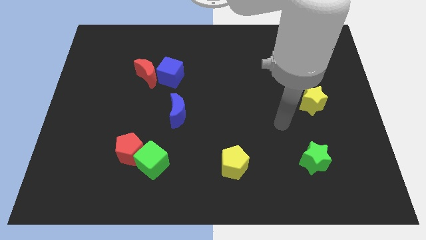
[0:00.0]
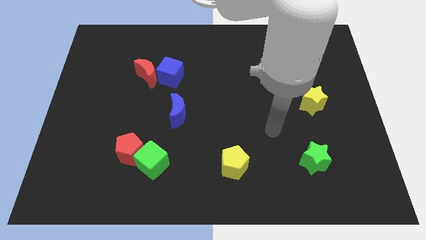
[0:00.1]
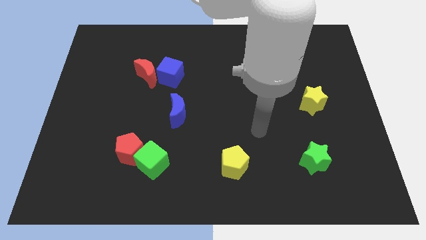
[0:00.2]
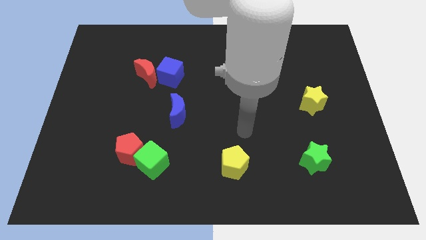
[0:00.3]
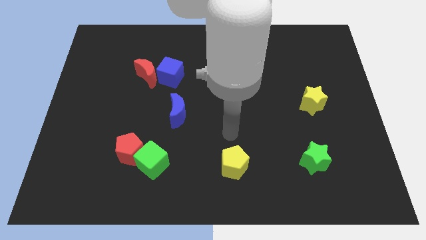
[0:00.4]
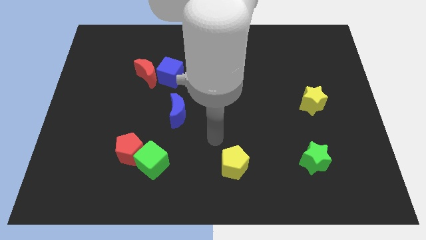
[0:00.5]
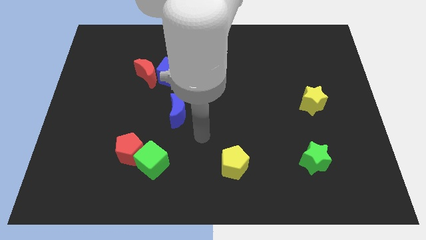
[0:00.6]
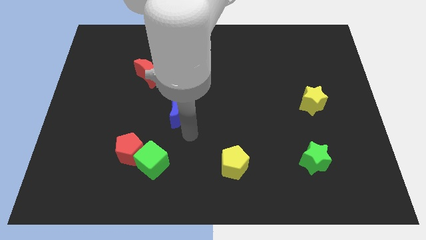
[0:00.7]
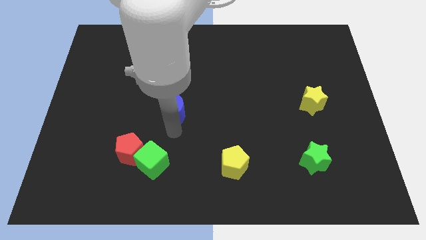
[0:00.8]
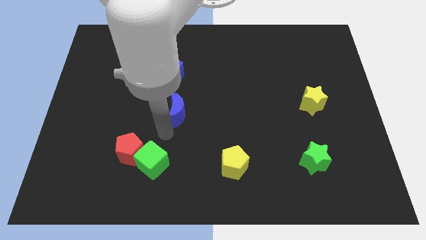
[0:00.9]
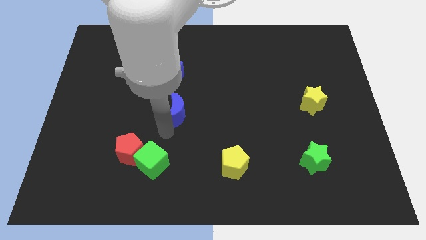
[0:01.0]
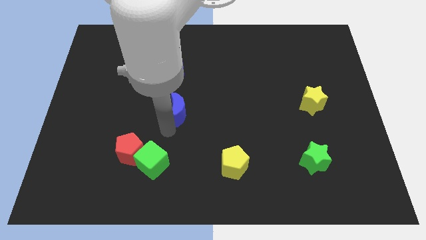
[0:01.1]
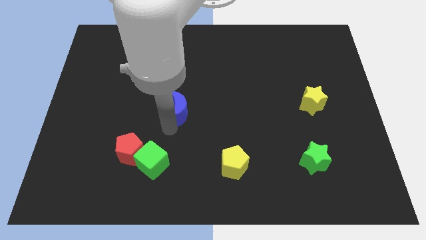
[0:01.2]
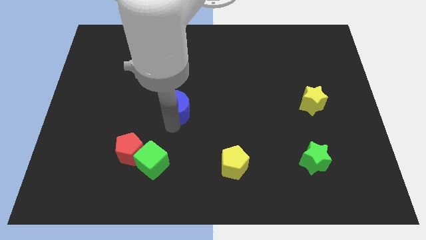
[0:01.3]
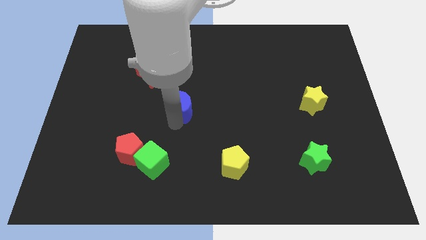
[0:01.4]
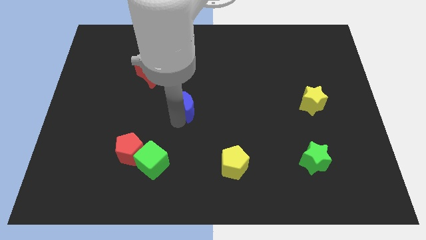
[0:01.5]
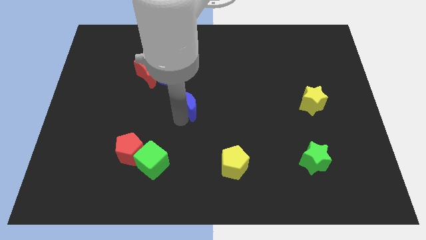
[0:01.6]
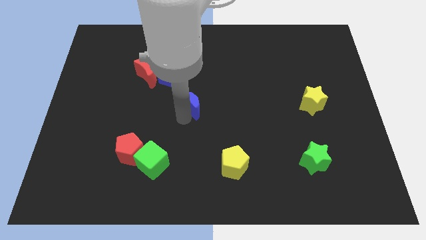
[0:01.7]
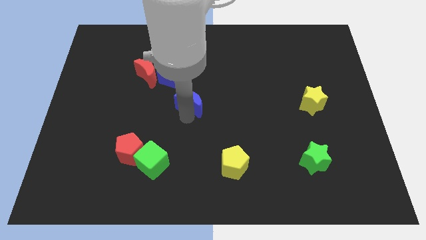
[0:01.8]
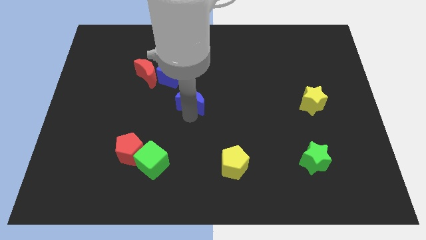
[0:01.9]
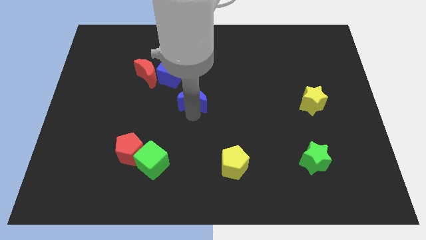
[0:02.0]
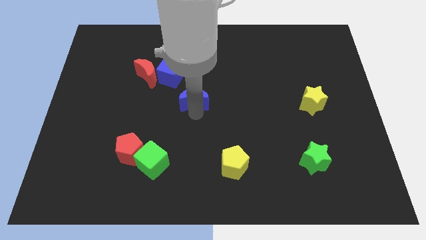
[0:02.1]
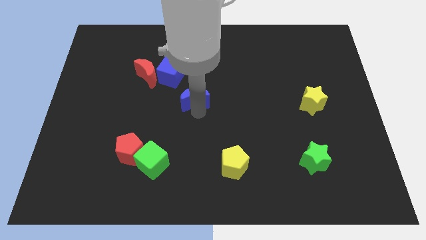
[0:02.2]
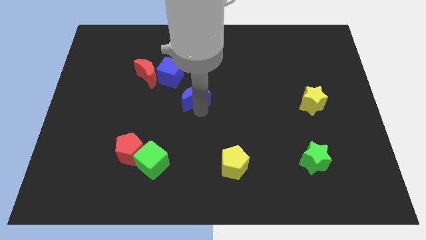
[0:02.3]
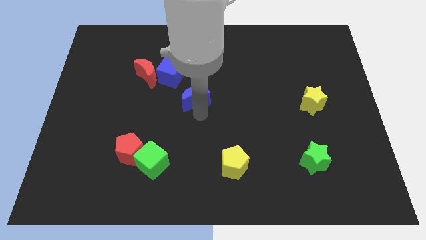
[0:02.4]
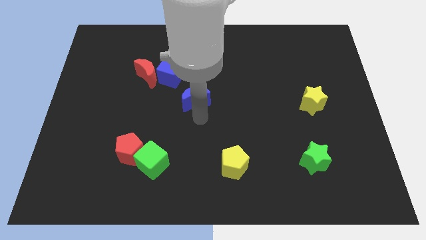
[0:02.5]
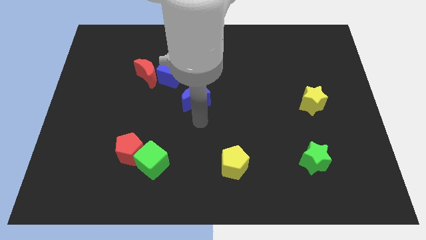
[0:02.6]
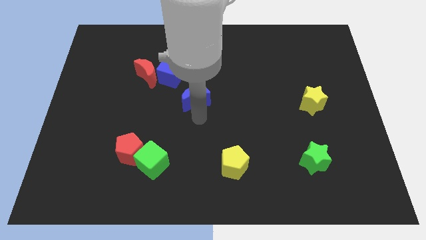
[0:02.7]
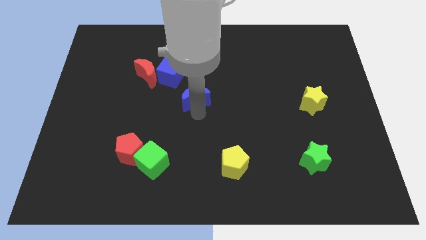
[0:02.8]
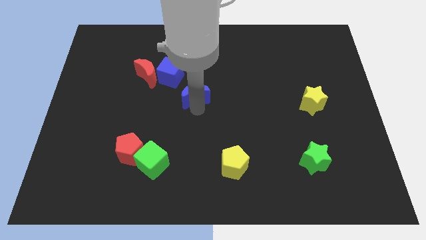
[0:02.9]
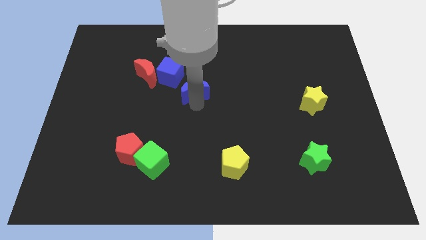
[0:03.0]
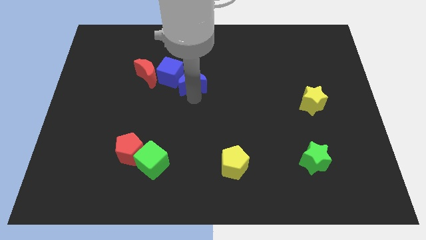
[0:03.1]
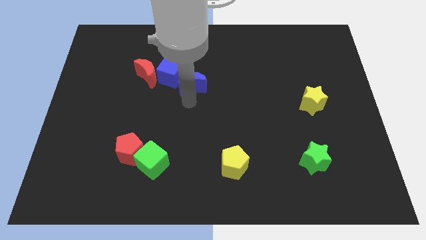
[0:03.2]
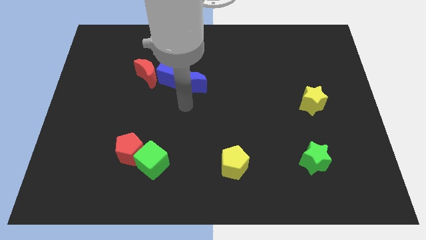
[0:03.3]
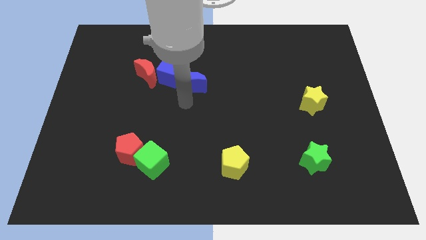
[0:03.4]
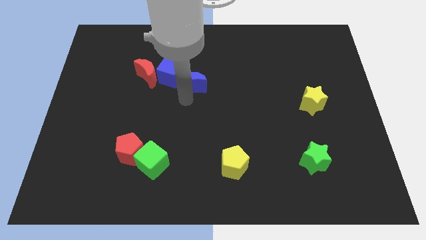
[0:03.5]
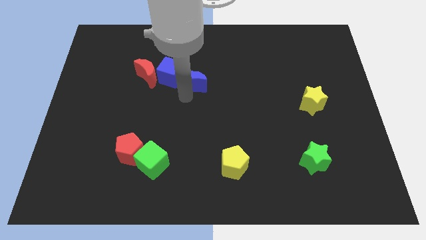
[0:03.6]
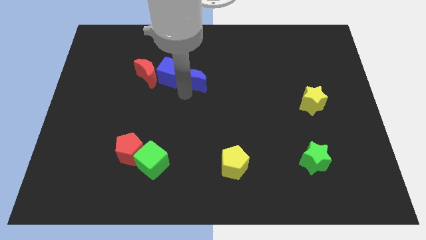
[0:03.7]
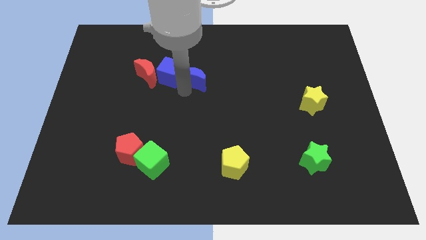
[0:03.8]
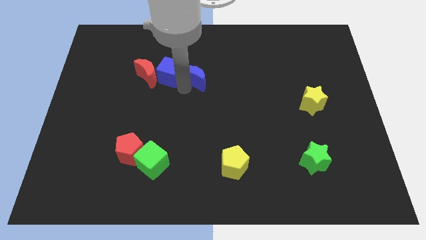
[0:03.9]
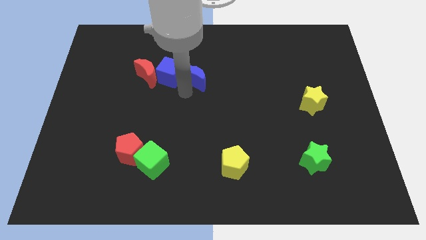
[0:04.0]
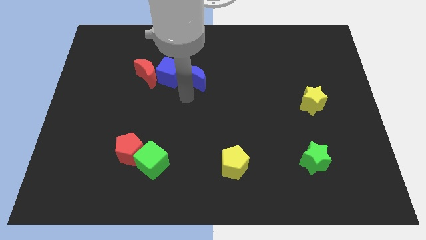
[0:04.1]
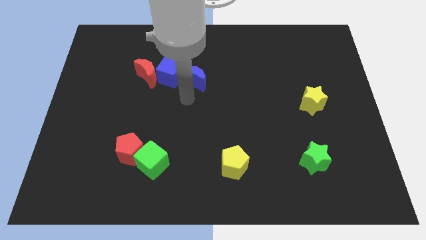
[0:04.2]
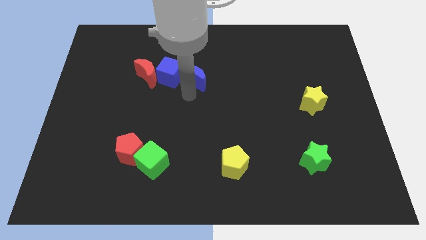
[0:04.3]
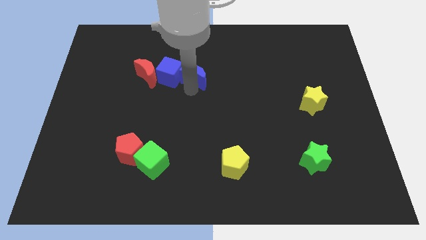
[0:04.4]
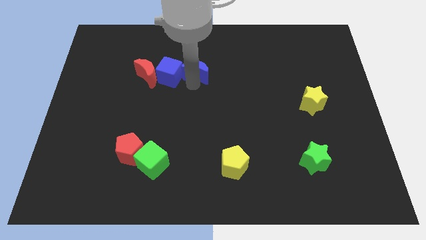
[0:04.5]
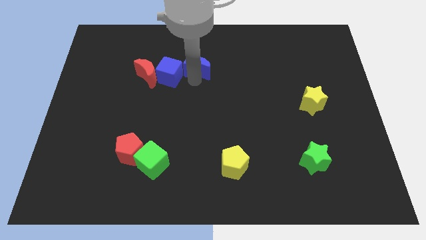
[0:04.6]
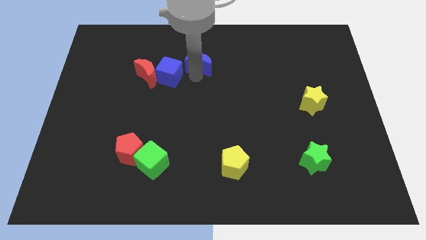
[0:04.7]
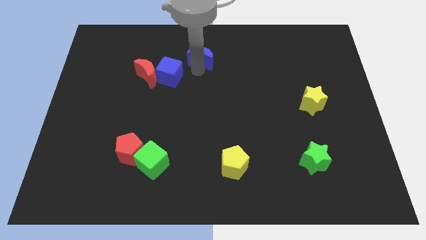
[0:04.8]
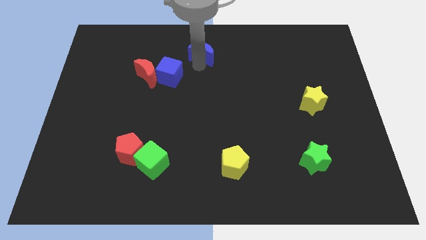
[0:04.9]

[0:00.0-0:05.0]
push the blue moon to the towards your base

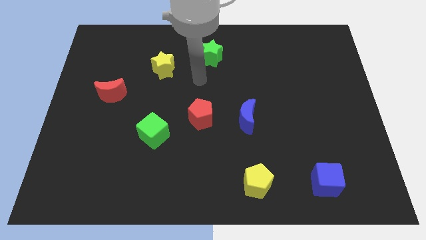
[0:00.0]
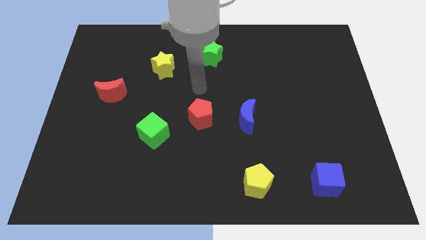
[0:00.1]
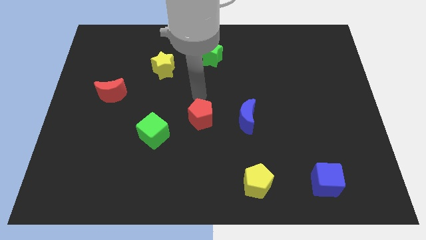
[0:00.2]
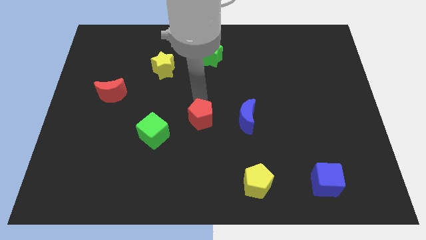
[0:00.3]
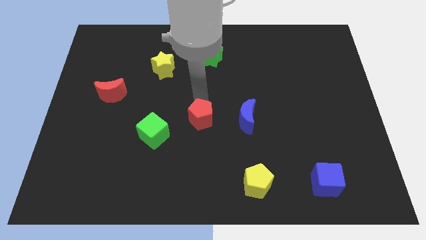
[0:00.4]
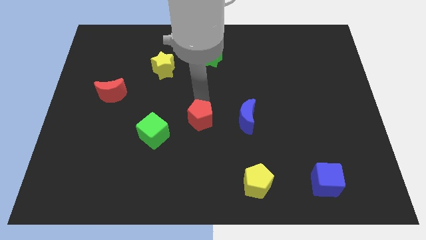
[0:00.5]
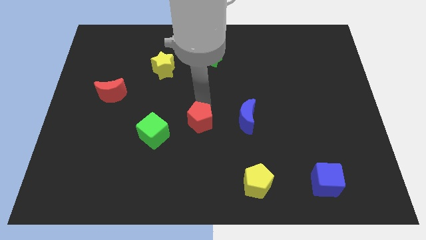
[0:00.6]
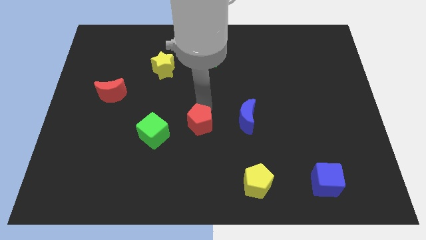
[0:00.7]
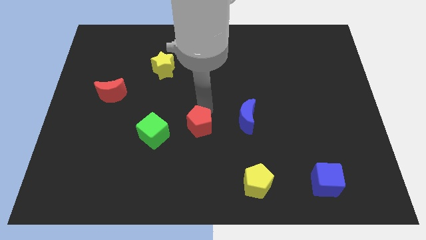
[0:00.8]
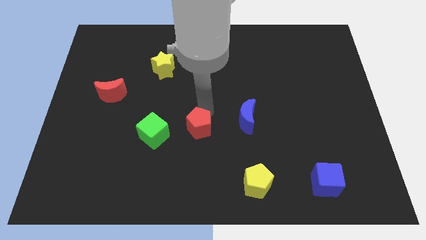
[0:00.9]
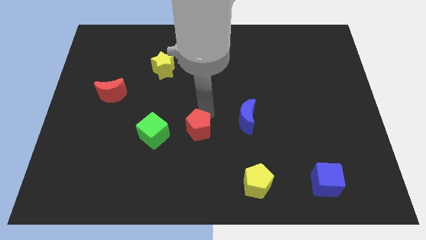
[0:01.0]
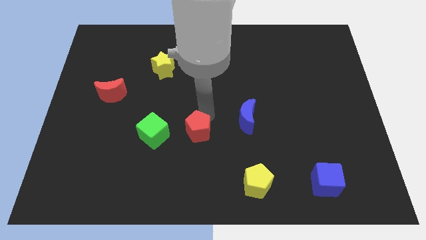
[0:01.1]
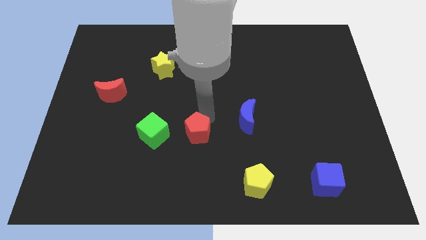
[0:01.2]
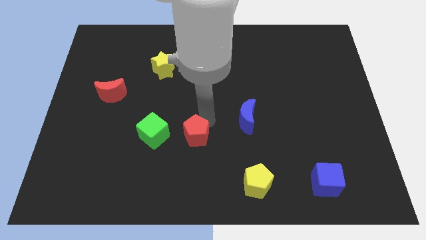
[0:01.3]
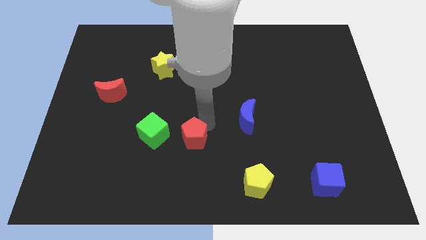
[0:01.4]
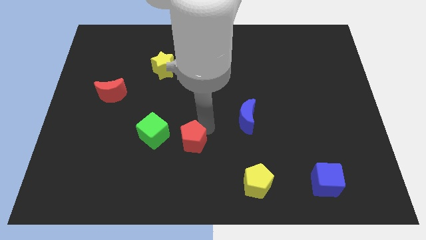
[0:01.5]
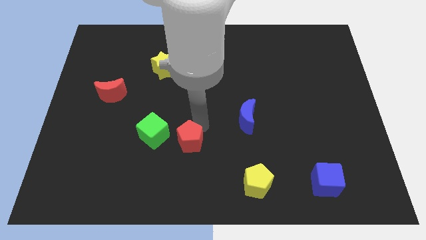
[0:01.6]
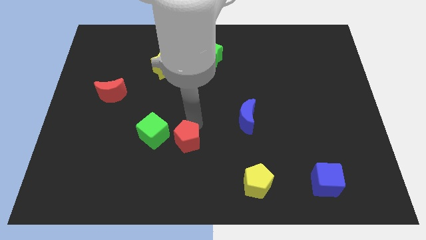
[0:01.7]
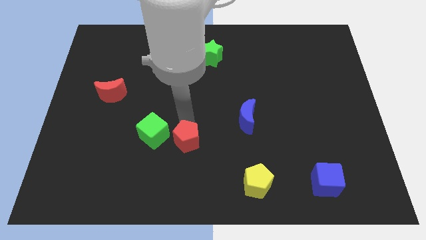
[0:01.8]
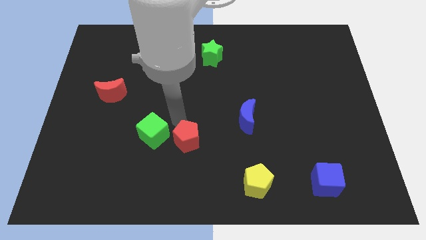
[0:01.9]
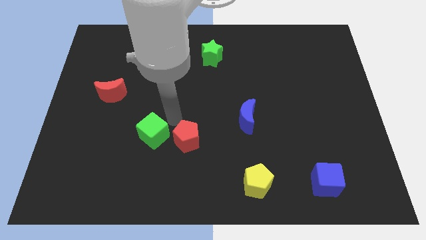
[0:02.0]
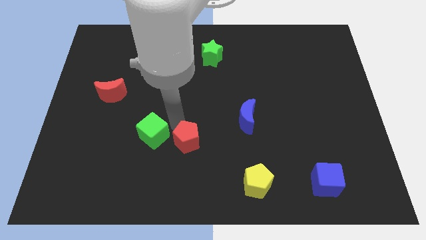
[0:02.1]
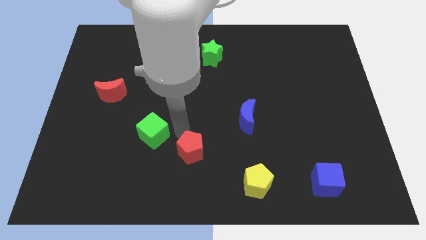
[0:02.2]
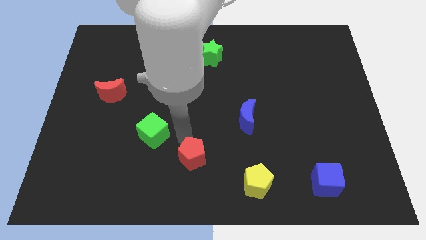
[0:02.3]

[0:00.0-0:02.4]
move the red pentagon to the bottom
